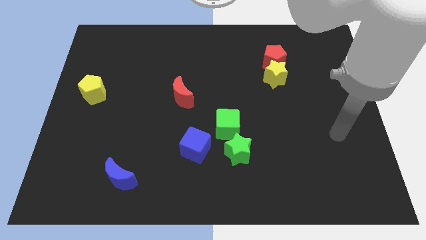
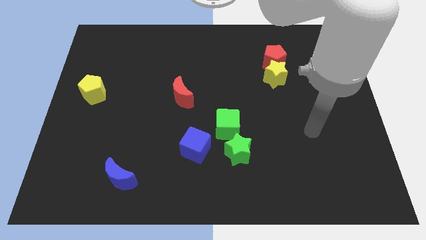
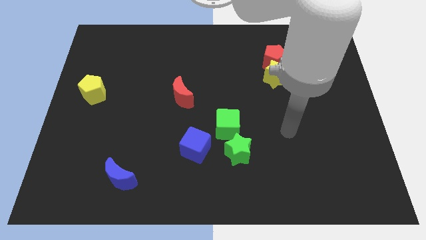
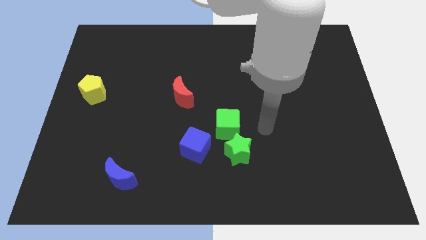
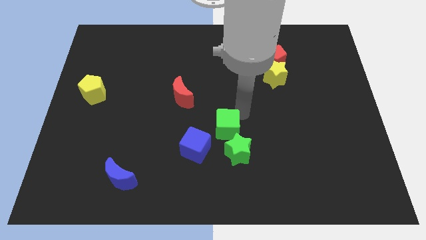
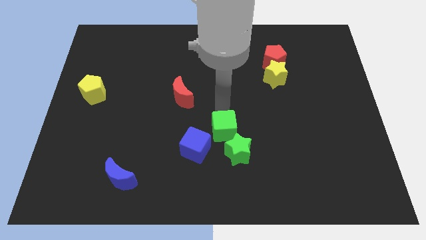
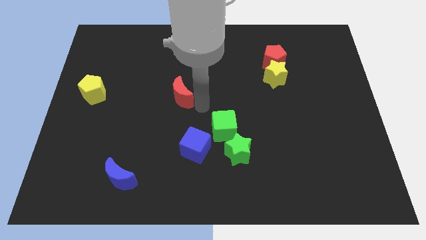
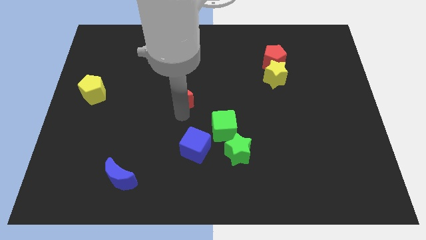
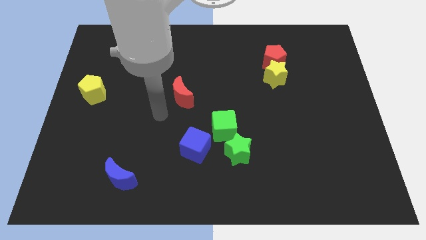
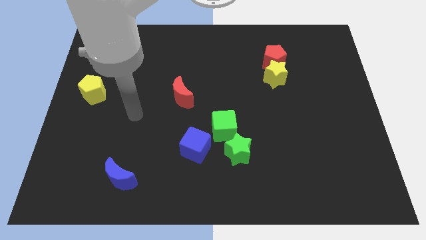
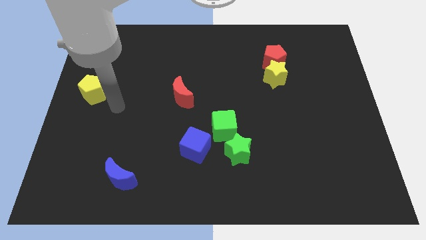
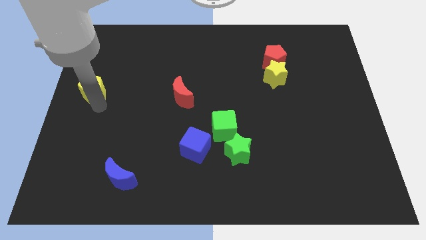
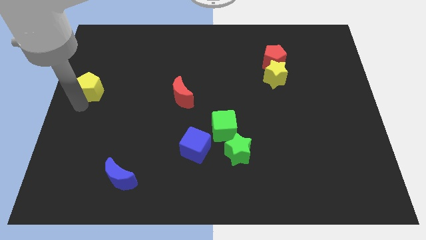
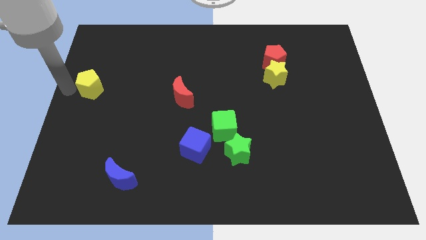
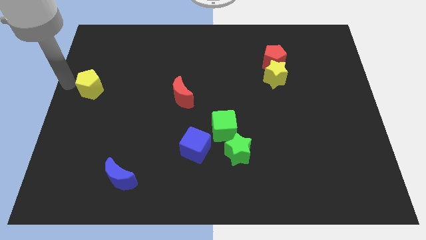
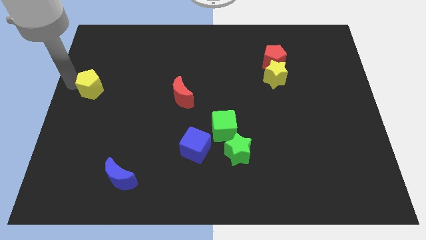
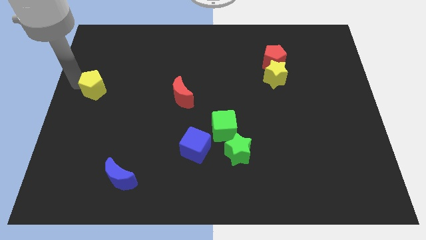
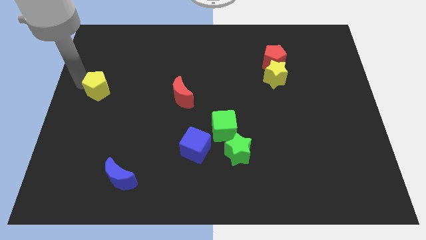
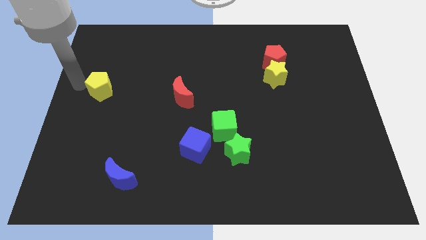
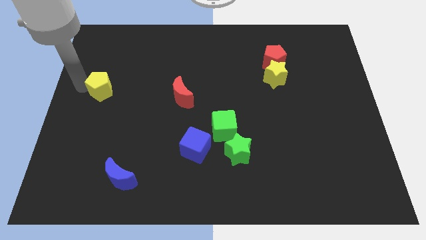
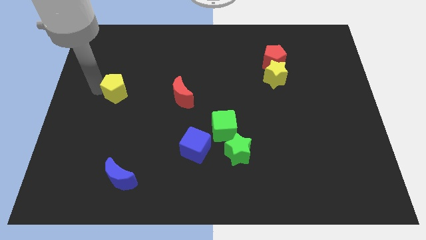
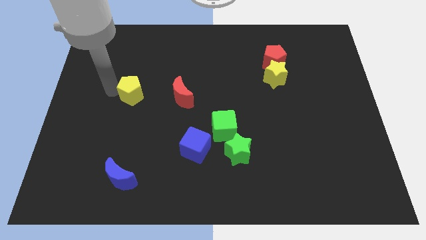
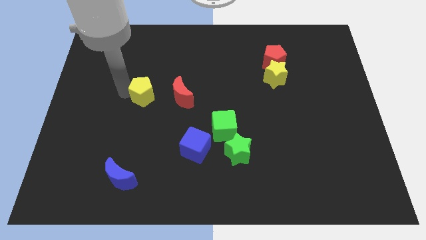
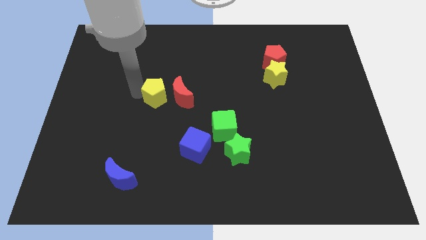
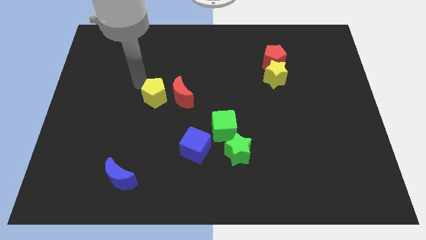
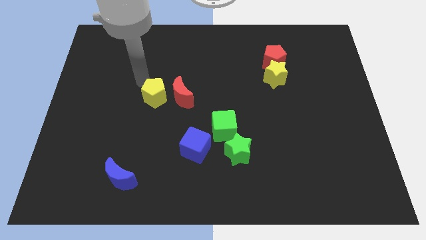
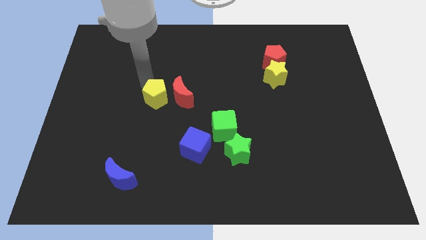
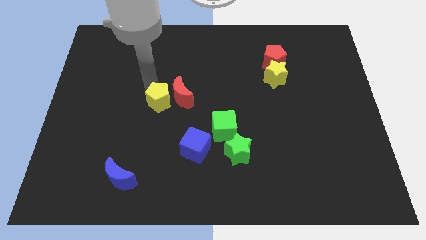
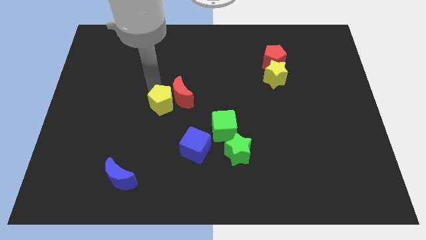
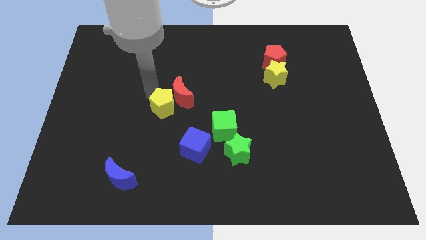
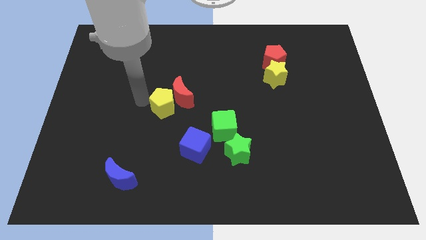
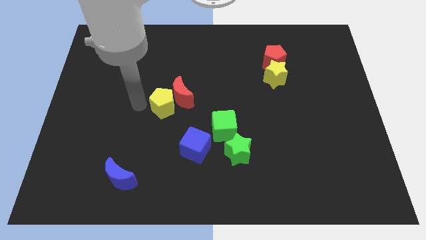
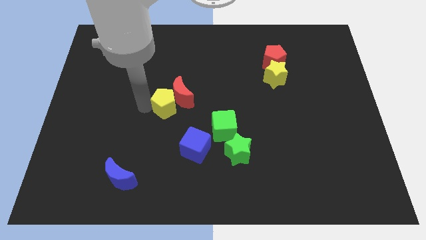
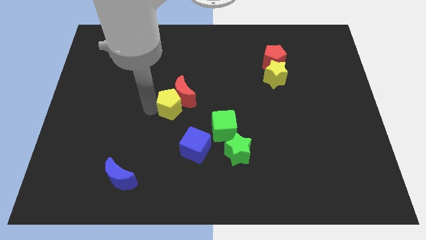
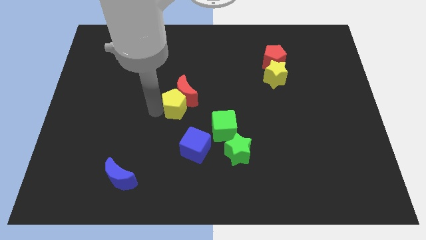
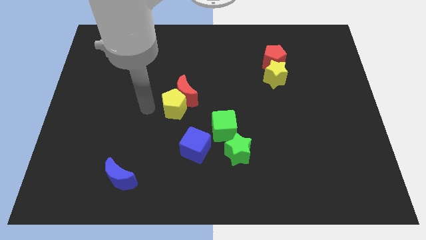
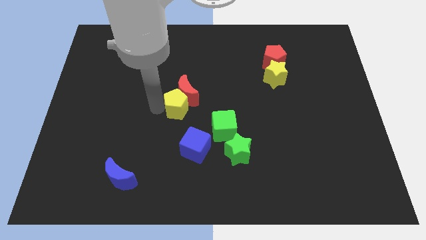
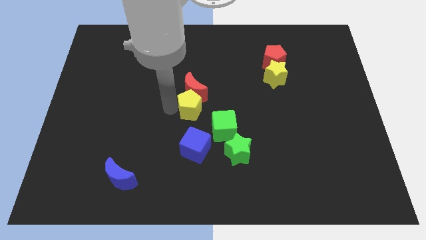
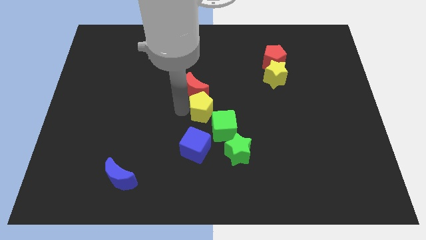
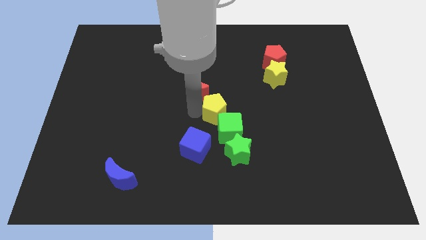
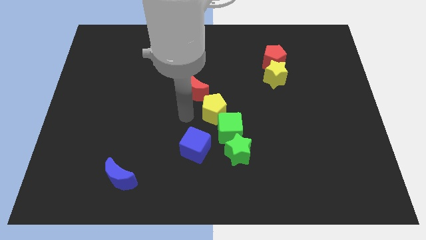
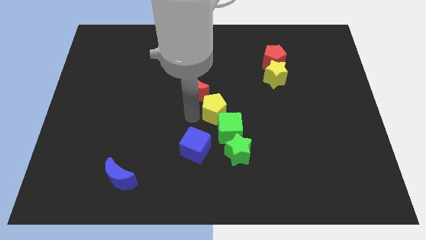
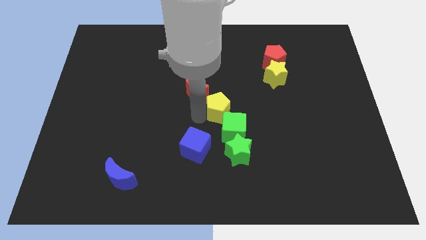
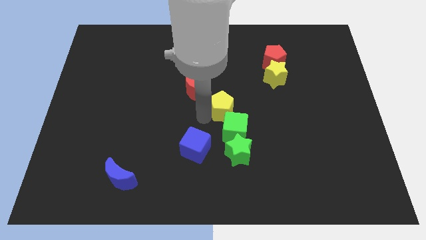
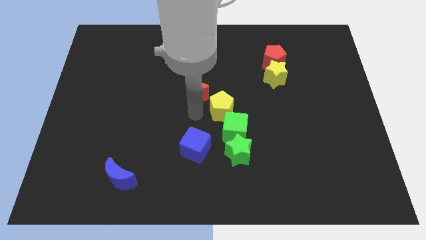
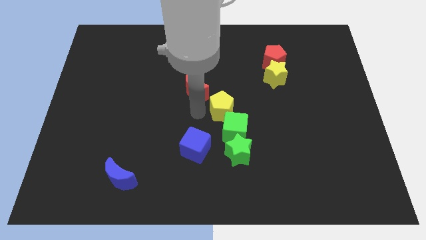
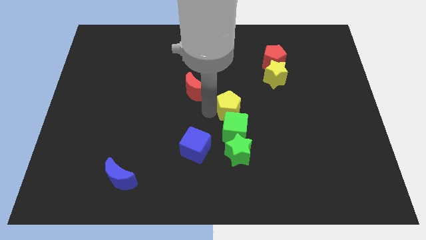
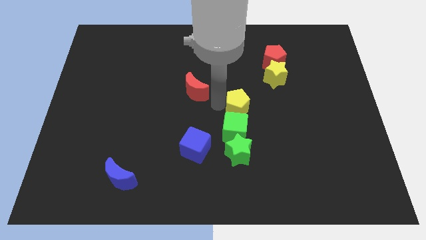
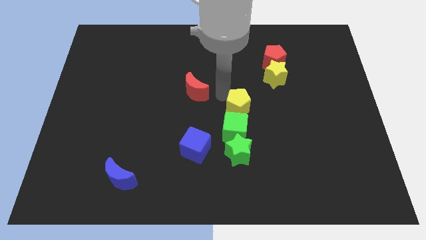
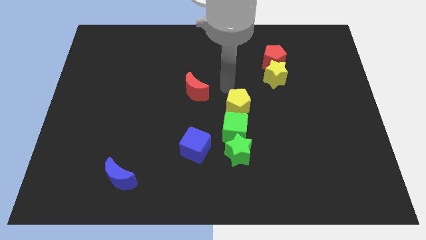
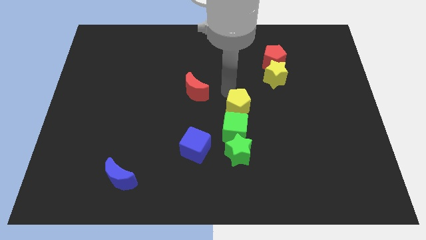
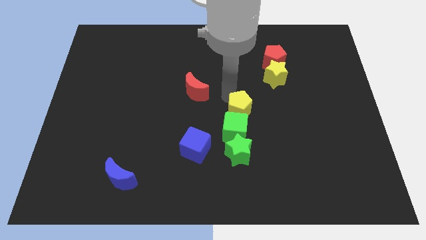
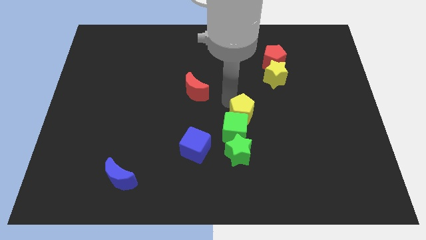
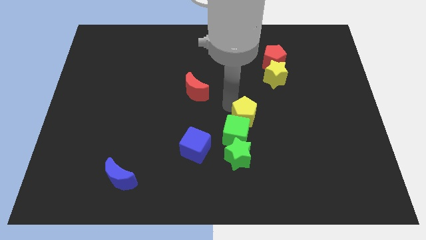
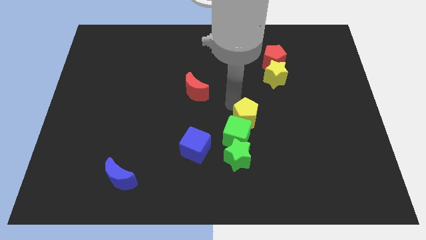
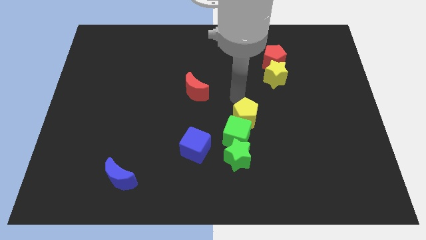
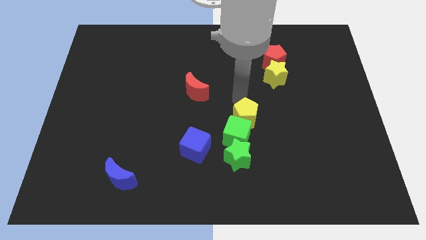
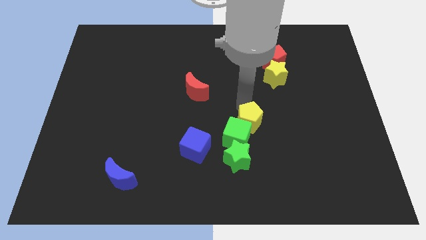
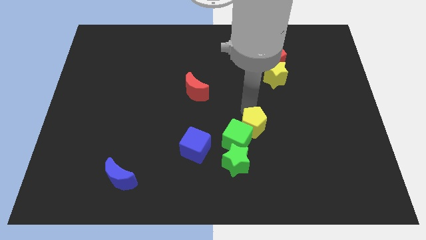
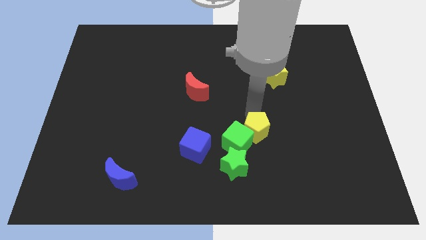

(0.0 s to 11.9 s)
move the yellow pentagon just right of the blue cube

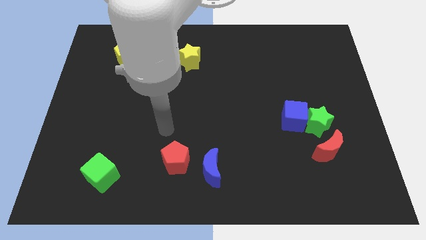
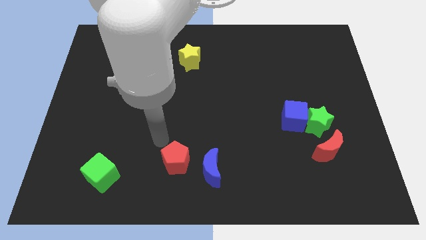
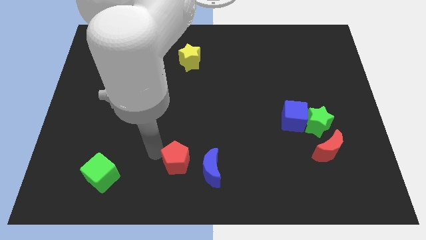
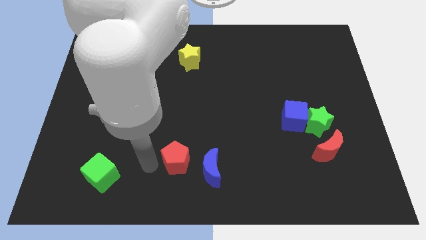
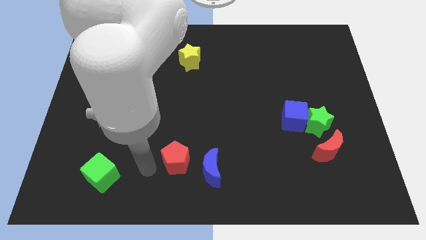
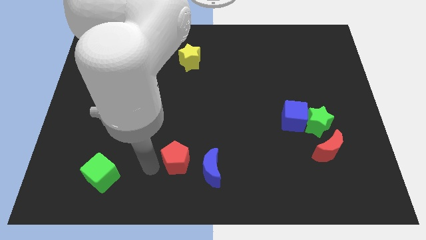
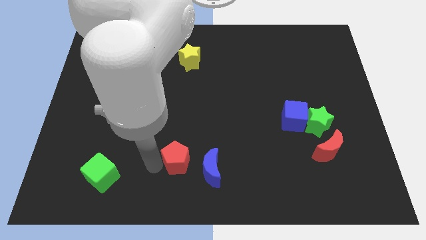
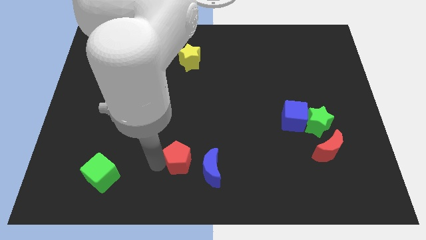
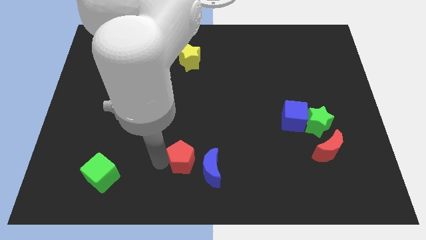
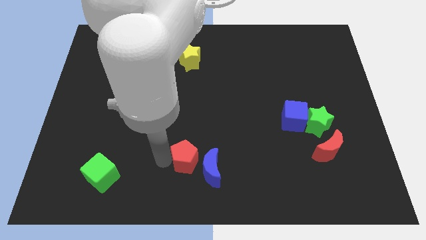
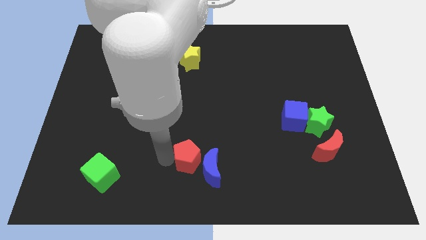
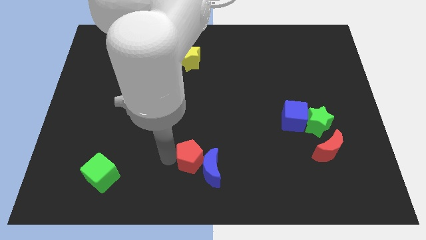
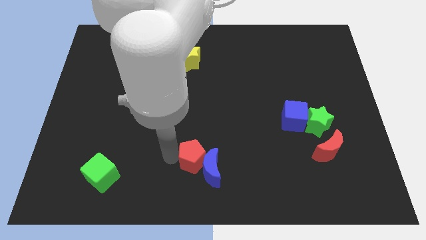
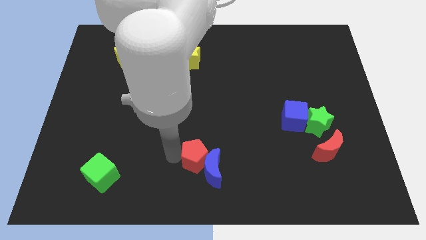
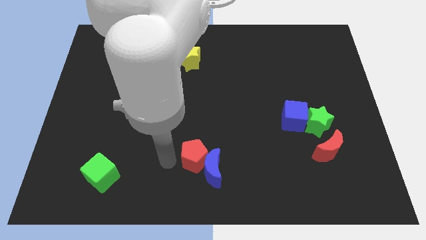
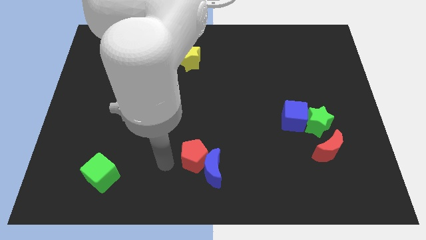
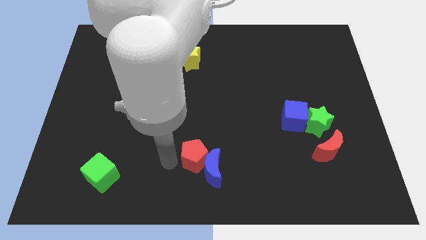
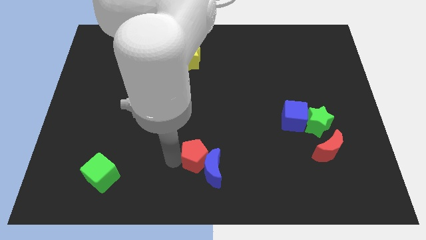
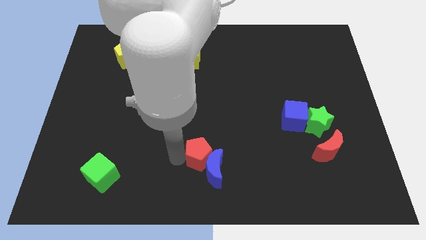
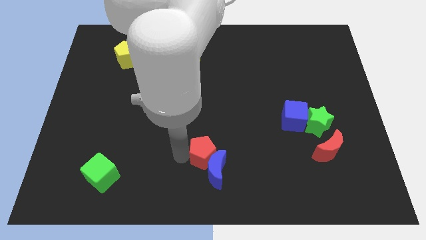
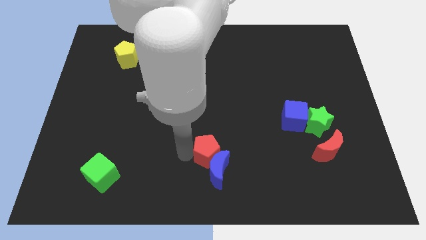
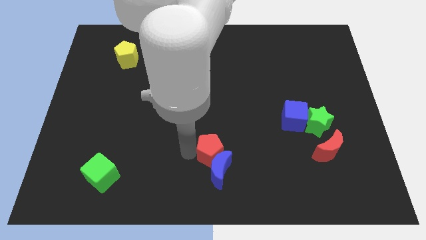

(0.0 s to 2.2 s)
slide the red pentagon diagonally up and to the right of the blue moon
